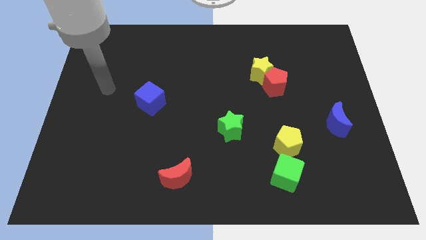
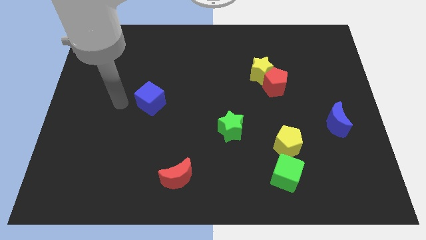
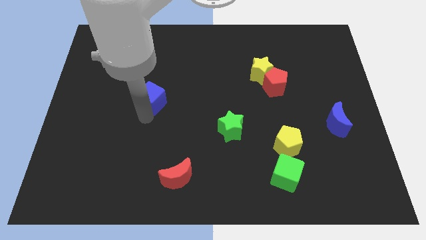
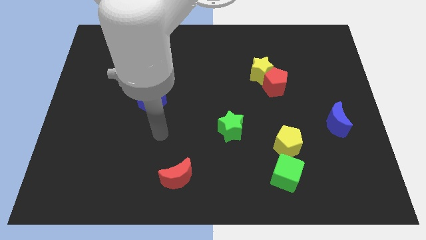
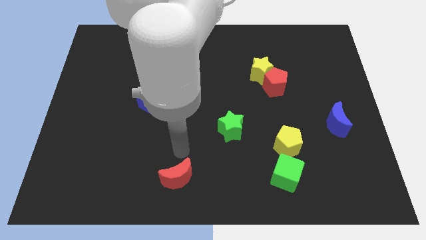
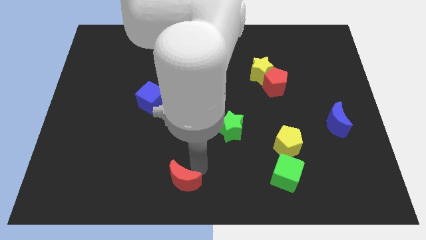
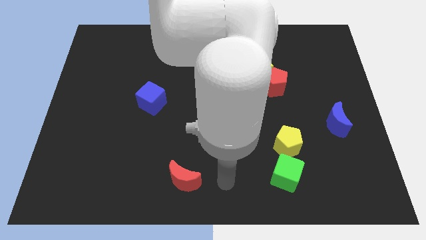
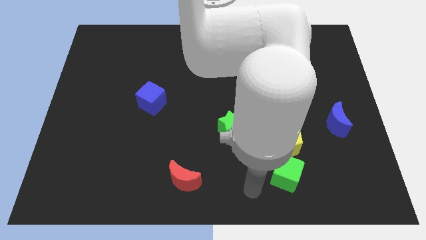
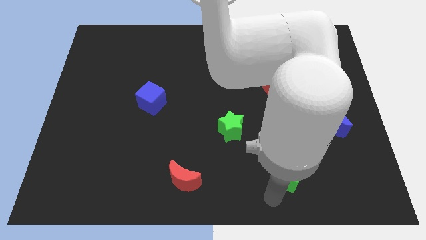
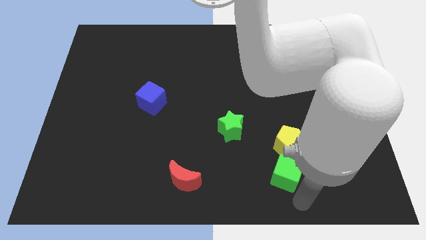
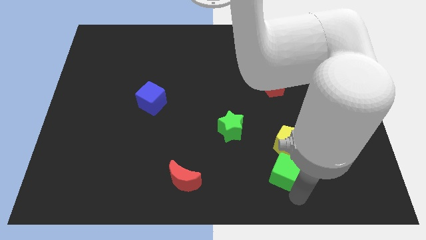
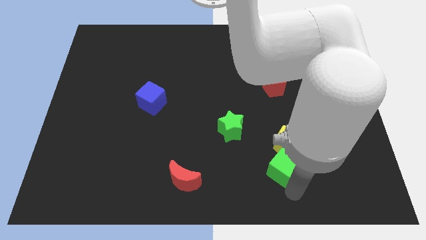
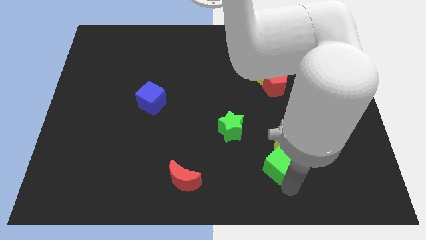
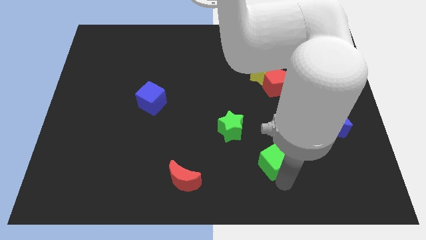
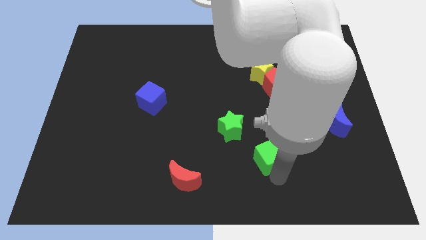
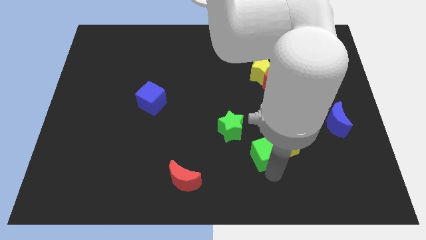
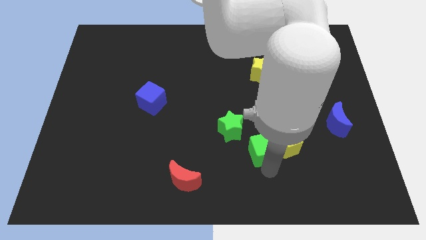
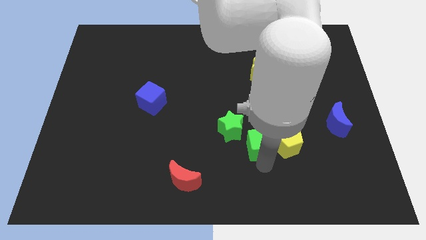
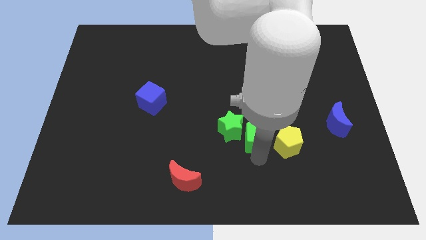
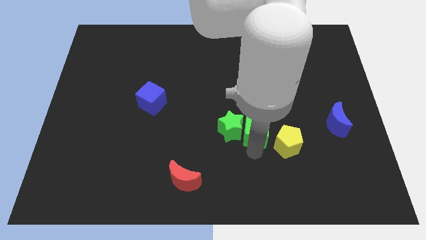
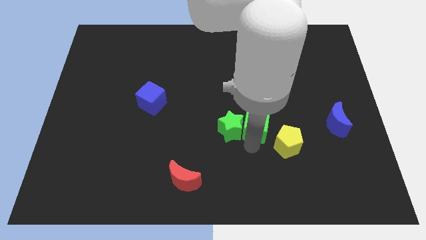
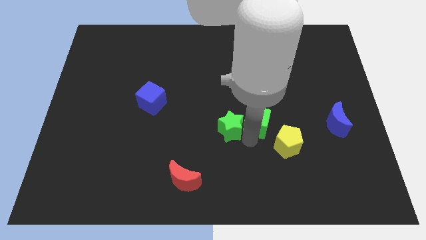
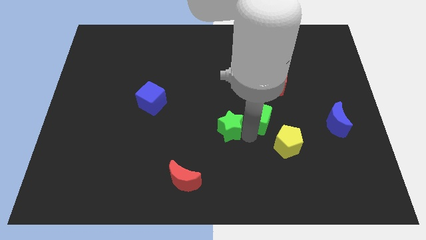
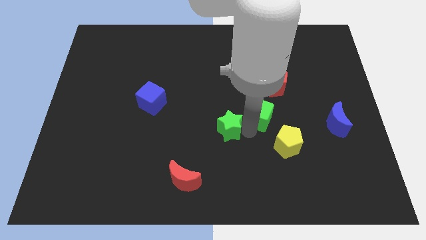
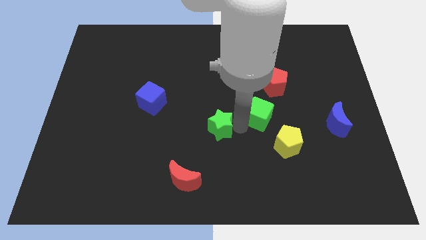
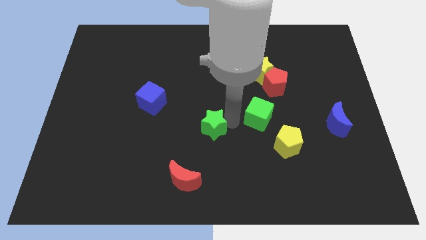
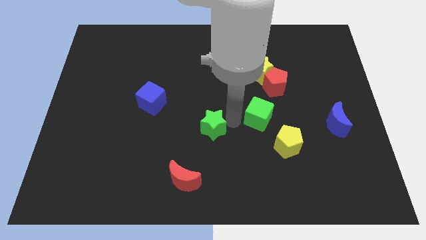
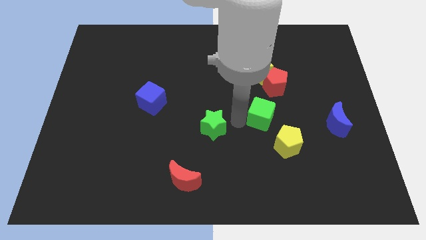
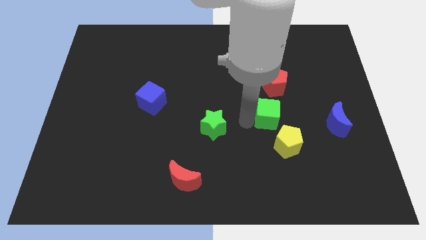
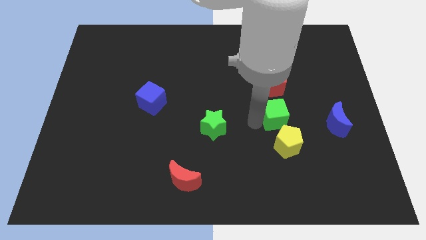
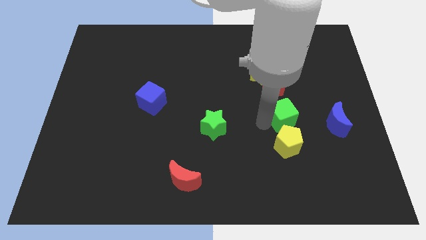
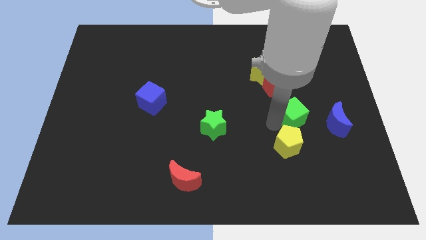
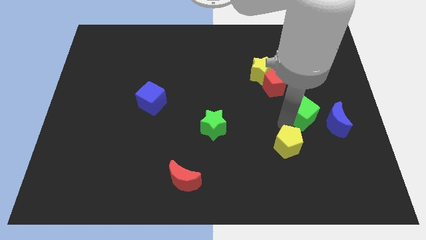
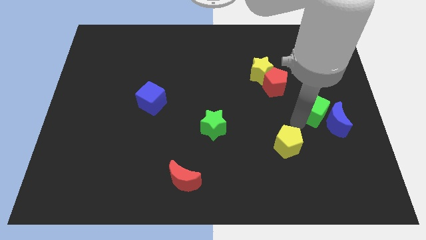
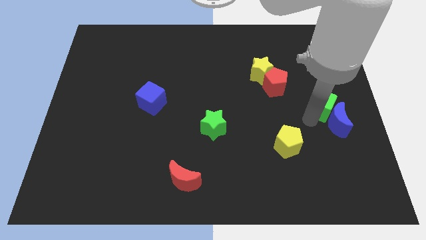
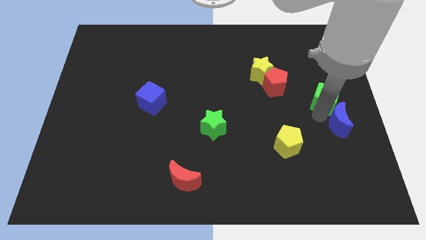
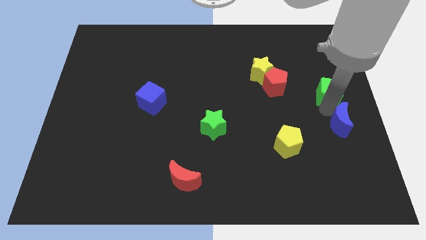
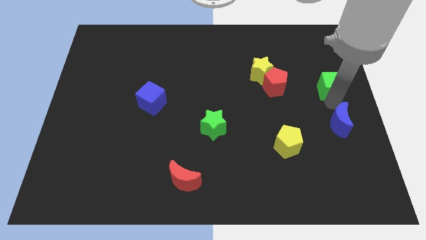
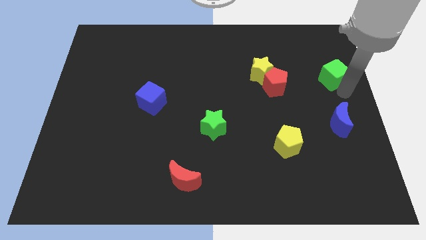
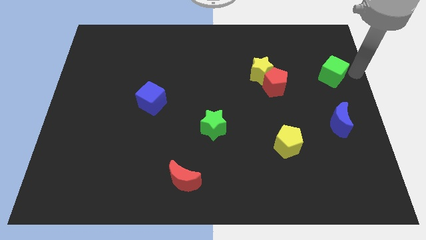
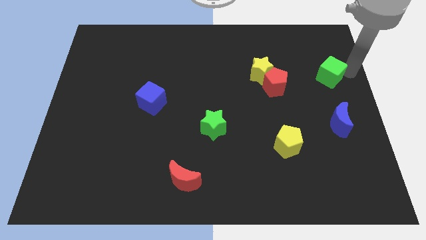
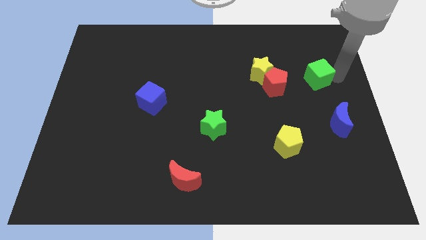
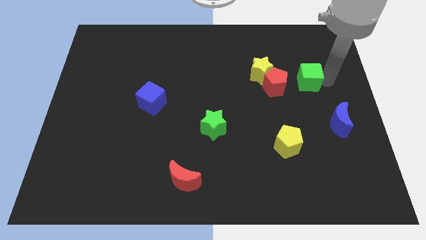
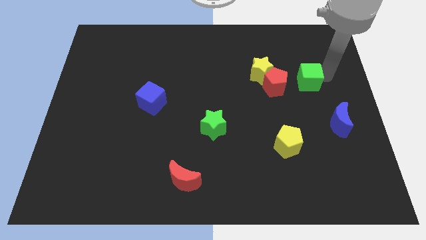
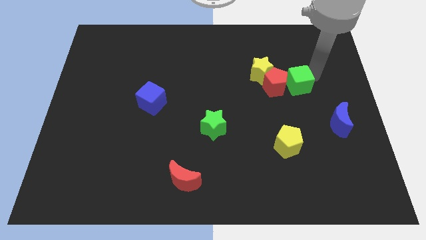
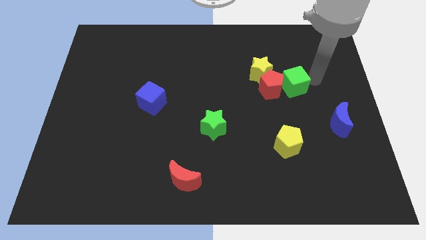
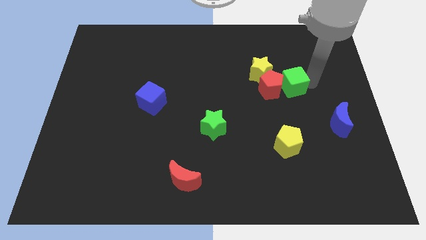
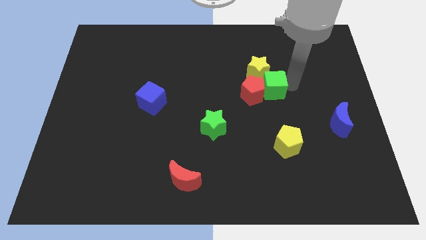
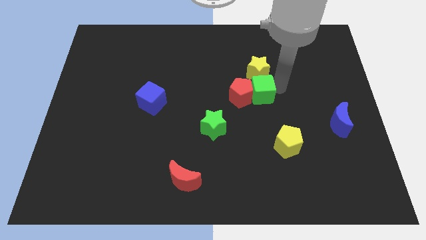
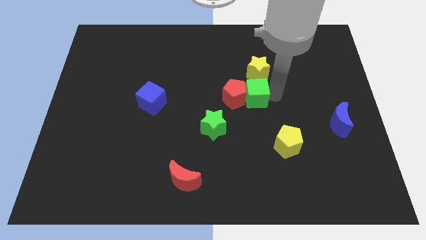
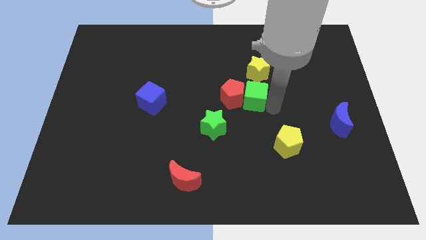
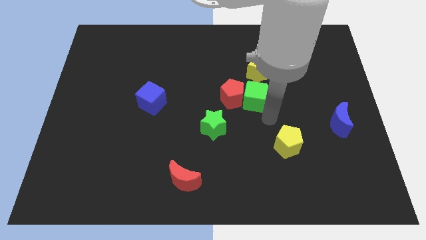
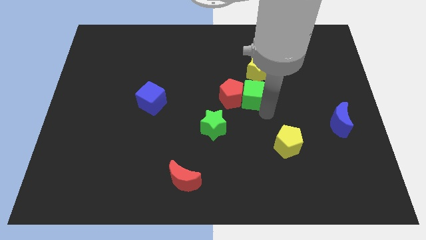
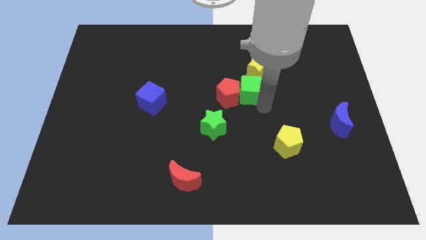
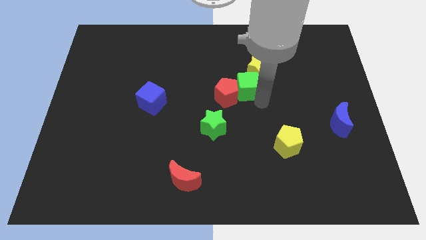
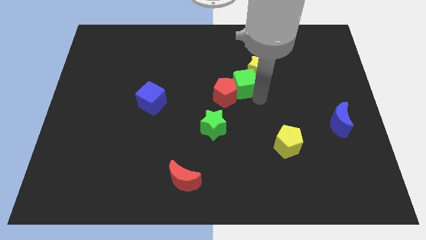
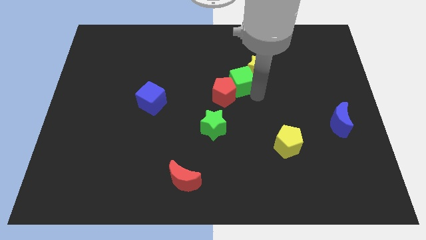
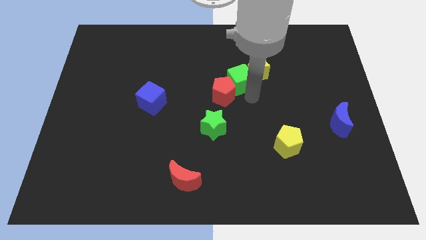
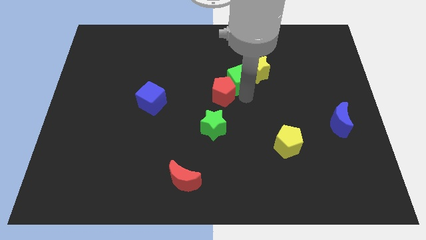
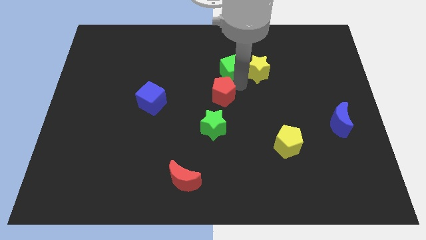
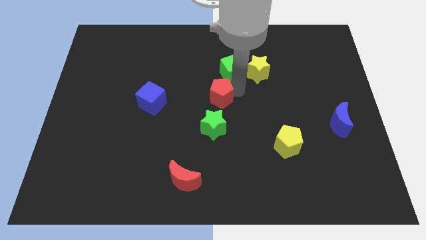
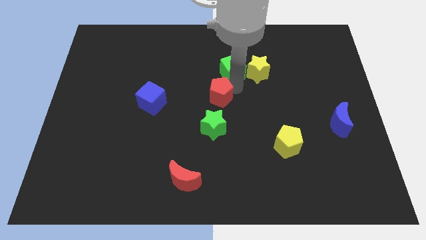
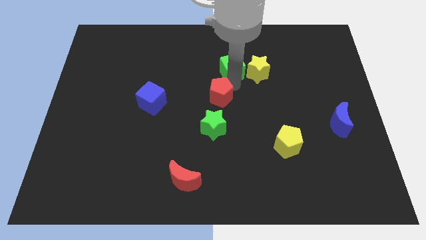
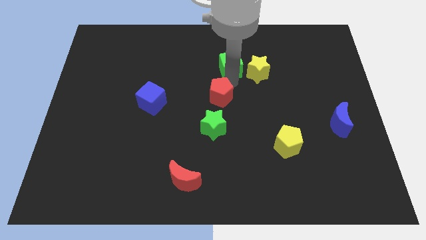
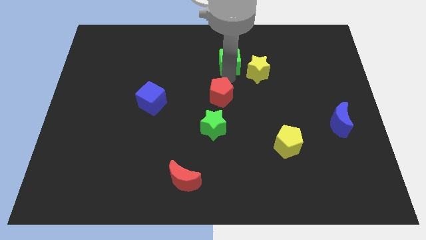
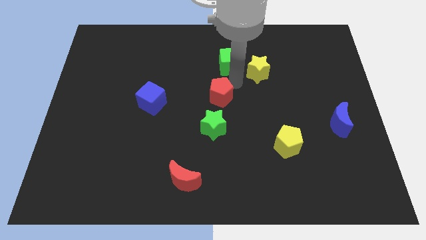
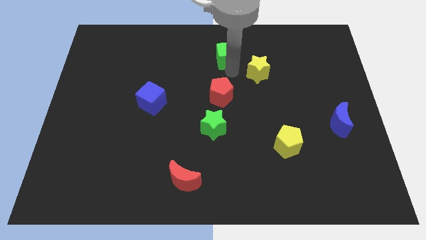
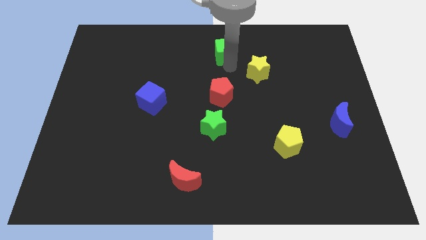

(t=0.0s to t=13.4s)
move the green cube to the top side
